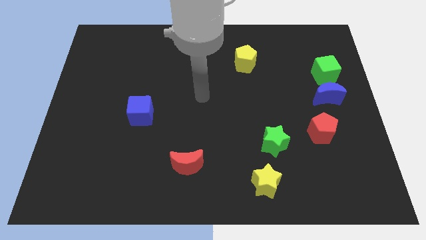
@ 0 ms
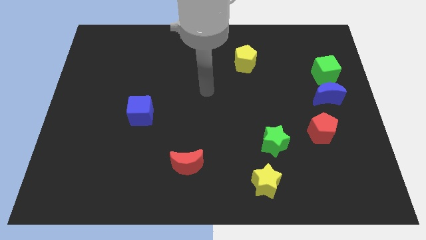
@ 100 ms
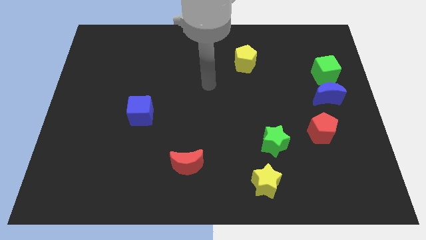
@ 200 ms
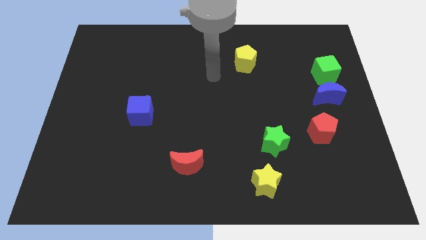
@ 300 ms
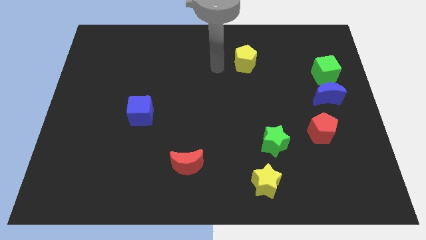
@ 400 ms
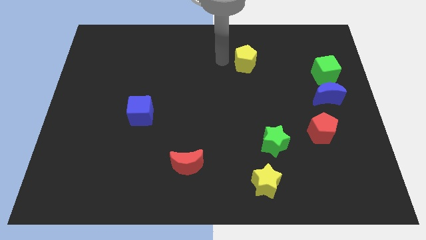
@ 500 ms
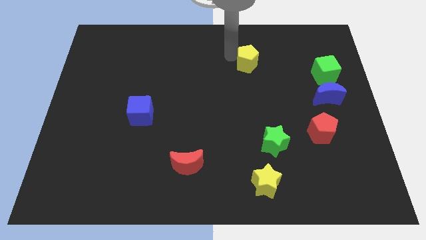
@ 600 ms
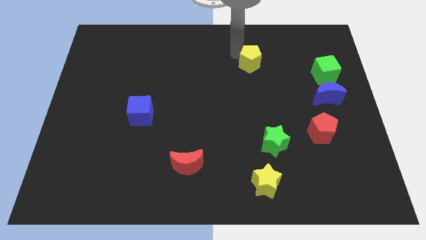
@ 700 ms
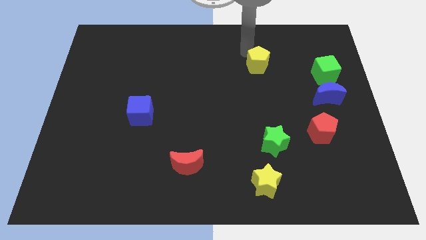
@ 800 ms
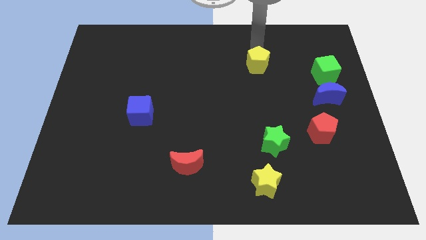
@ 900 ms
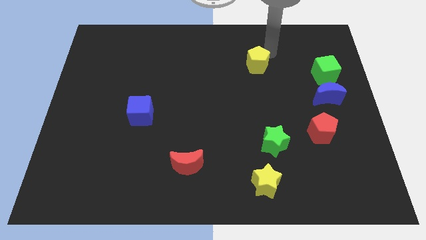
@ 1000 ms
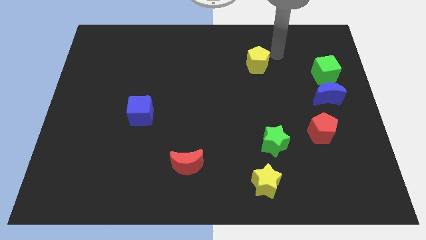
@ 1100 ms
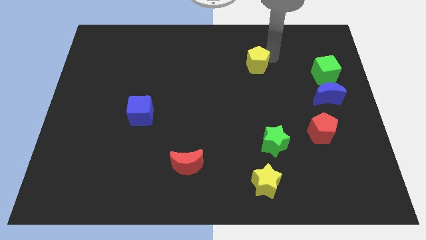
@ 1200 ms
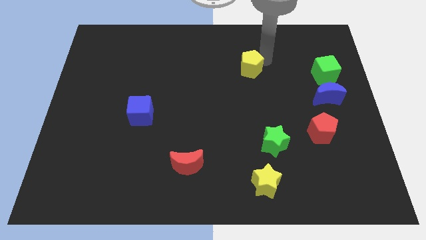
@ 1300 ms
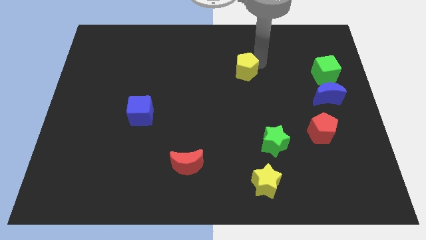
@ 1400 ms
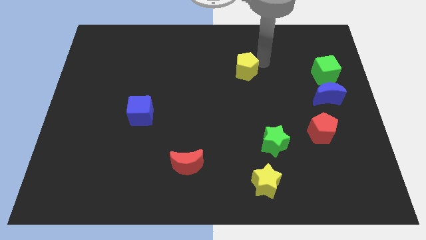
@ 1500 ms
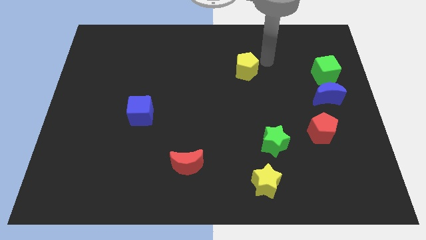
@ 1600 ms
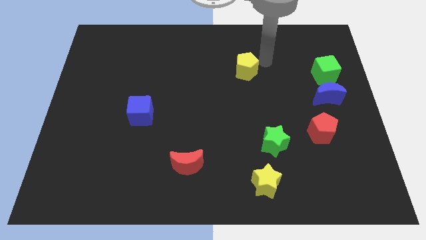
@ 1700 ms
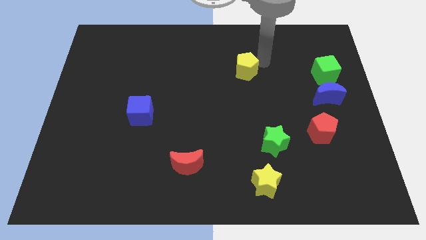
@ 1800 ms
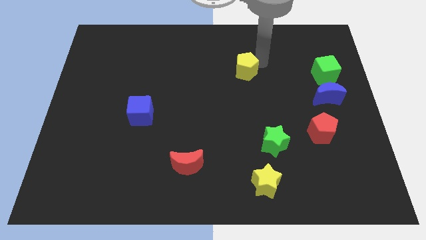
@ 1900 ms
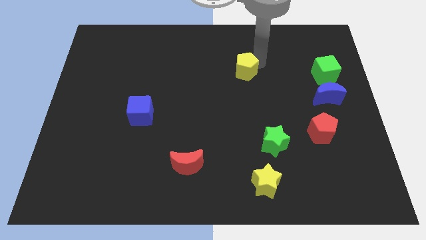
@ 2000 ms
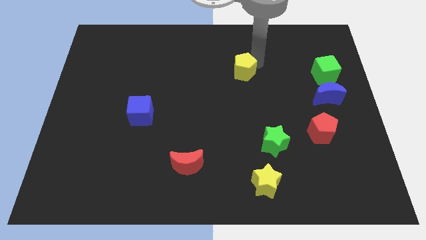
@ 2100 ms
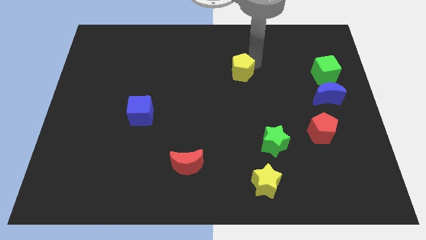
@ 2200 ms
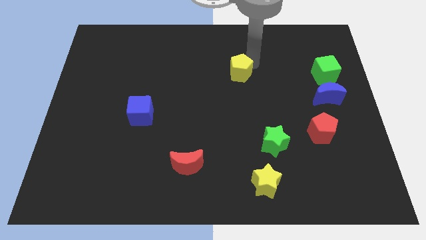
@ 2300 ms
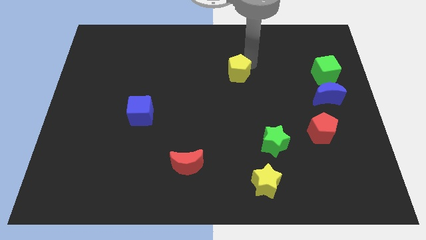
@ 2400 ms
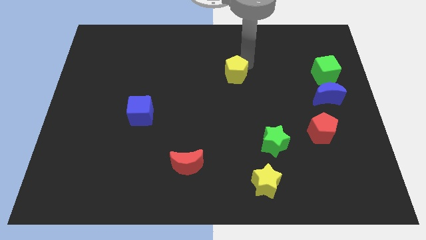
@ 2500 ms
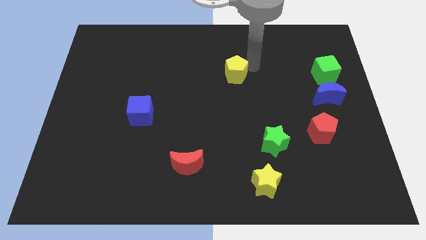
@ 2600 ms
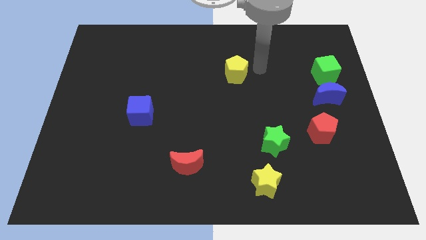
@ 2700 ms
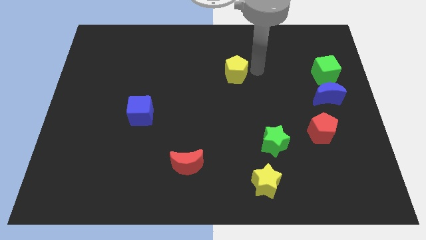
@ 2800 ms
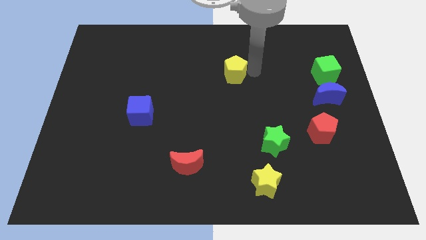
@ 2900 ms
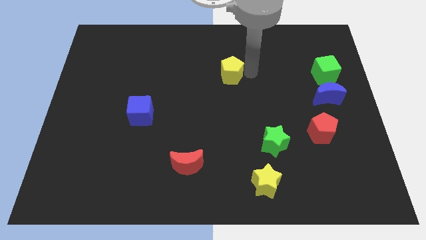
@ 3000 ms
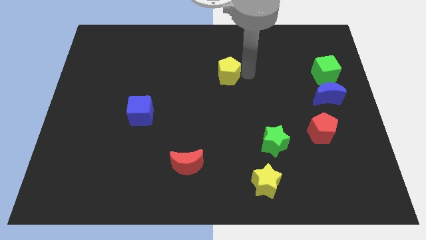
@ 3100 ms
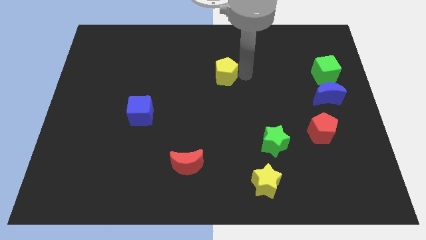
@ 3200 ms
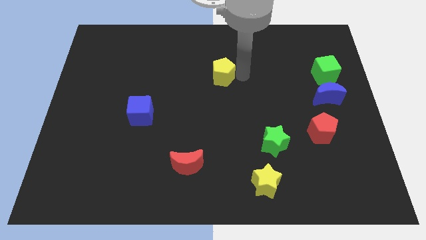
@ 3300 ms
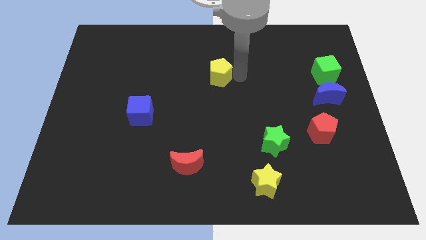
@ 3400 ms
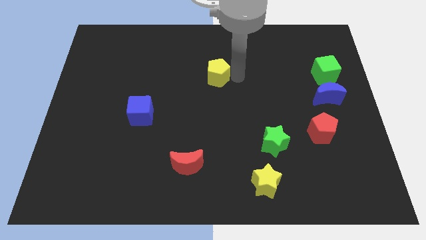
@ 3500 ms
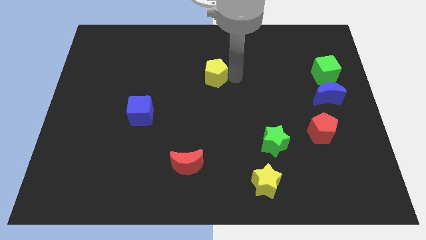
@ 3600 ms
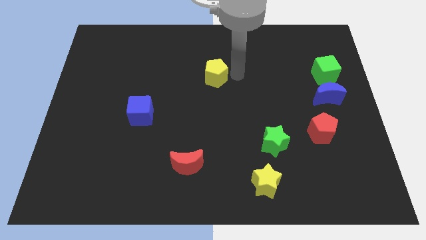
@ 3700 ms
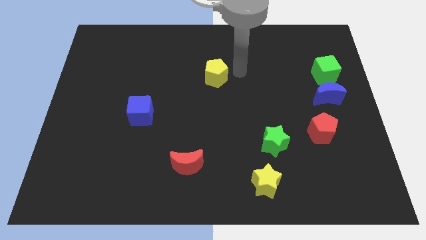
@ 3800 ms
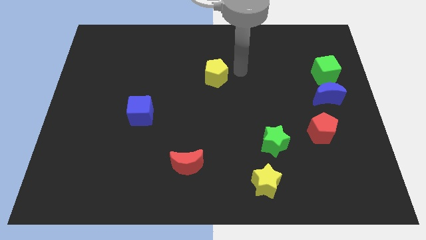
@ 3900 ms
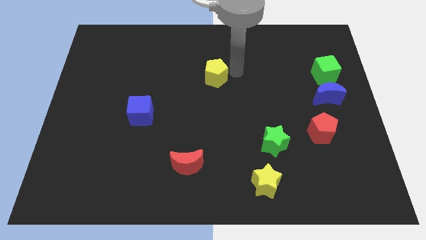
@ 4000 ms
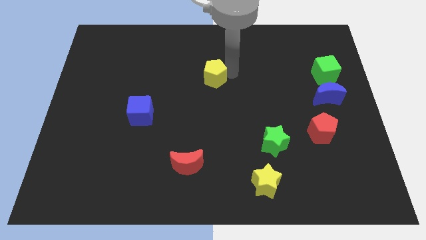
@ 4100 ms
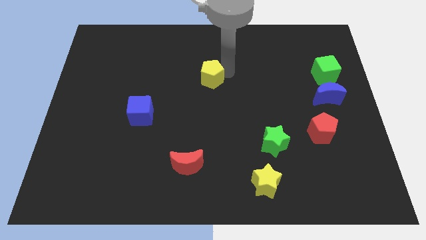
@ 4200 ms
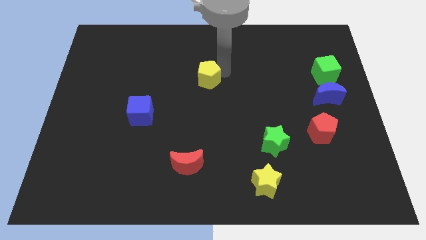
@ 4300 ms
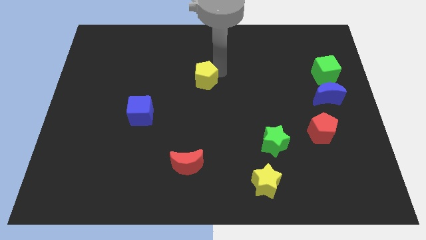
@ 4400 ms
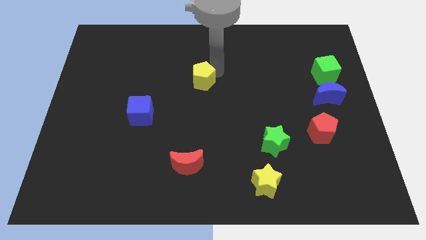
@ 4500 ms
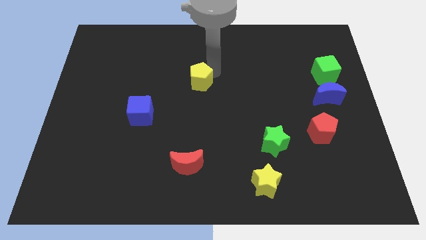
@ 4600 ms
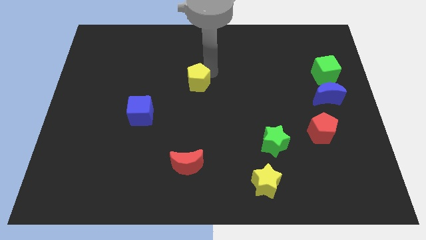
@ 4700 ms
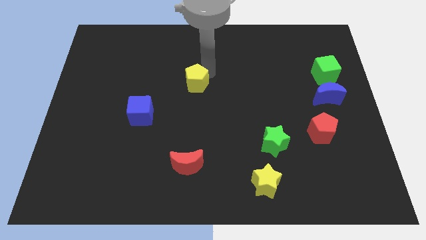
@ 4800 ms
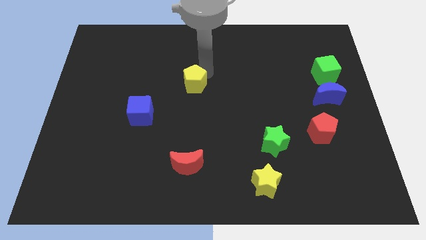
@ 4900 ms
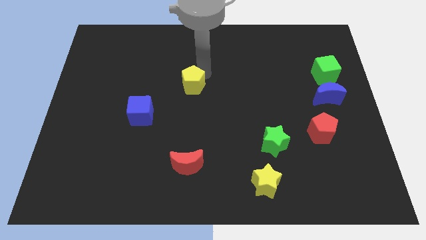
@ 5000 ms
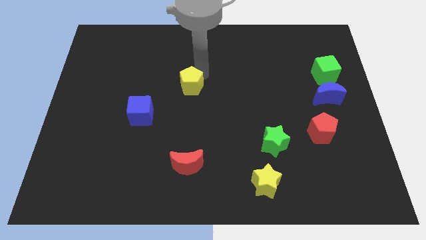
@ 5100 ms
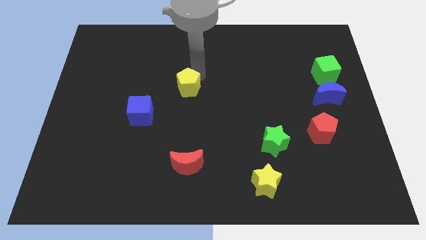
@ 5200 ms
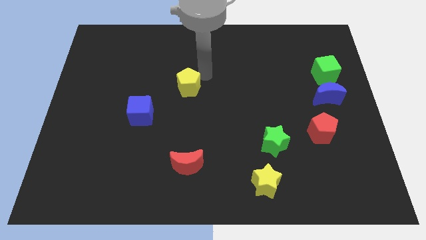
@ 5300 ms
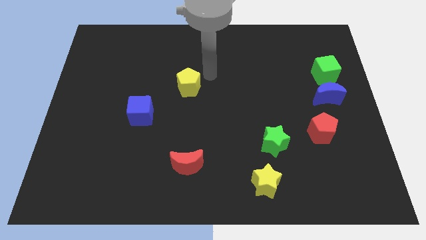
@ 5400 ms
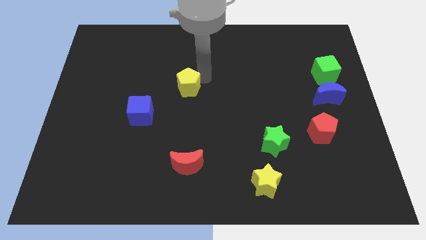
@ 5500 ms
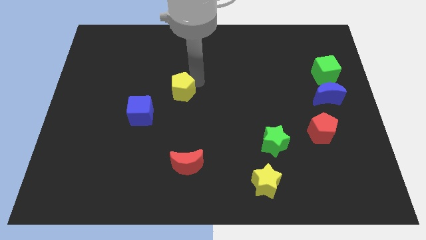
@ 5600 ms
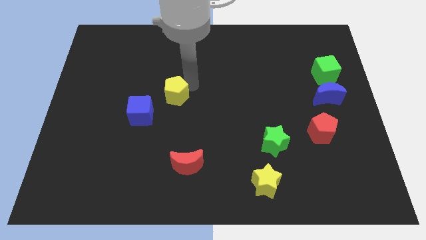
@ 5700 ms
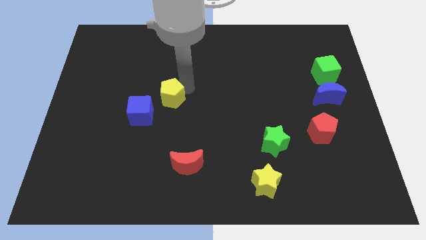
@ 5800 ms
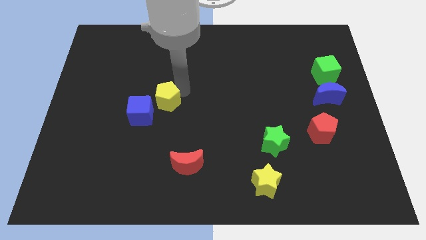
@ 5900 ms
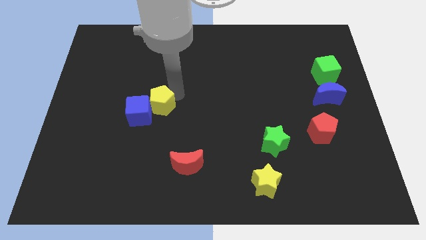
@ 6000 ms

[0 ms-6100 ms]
slide the yellow pentagon close to the blue cube

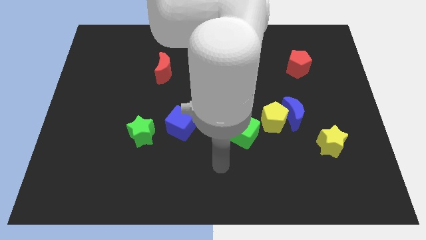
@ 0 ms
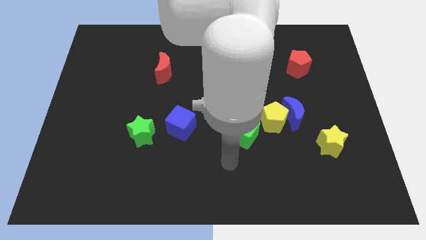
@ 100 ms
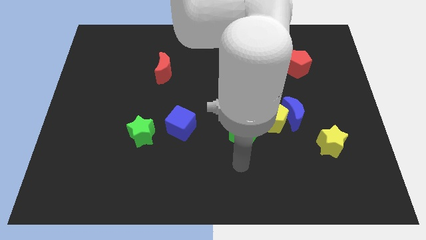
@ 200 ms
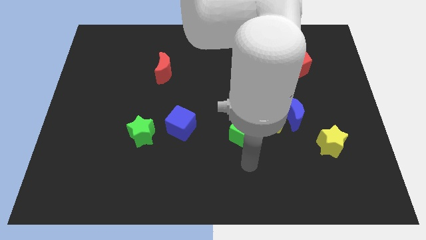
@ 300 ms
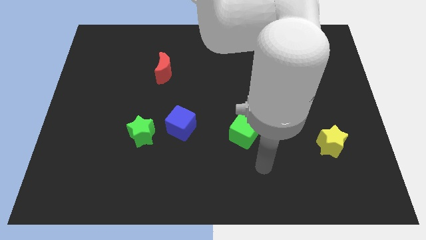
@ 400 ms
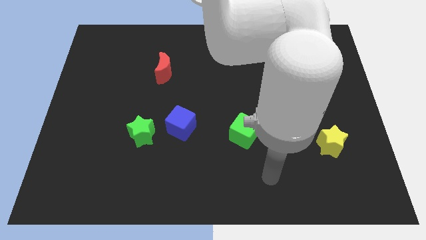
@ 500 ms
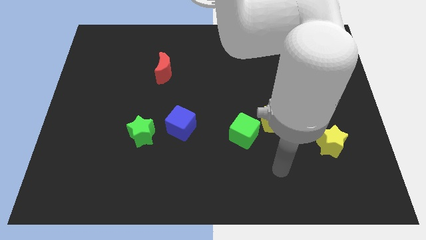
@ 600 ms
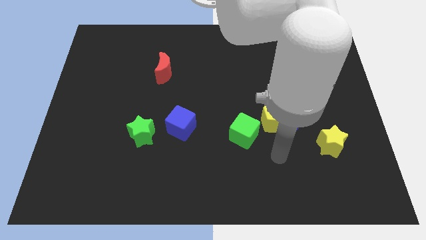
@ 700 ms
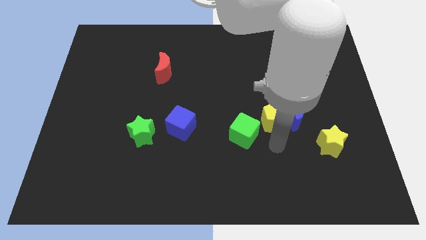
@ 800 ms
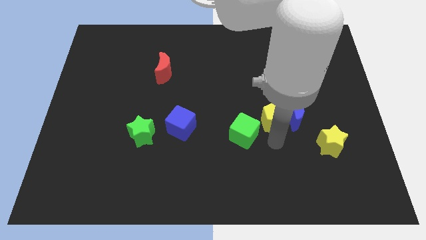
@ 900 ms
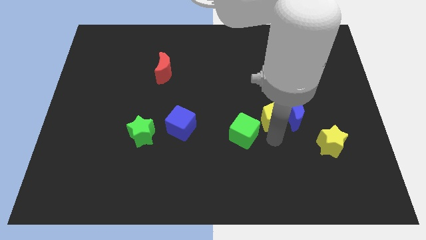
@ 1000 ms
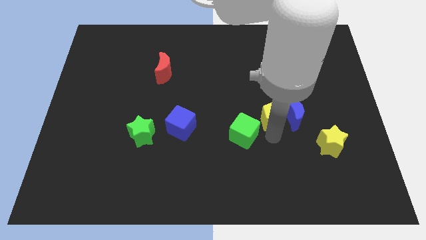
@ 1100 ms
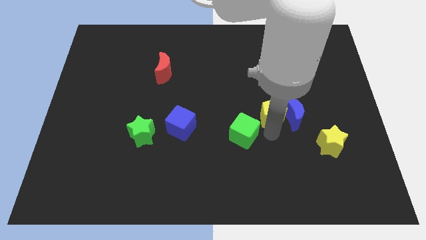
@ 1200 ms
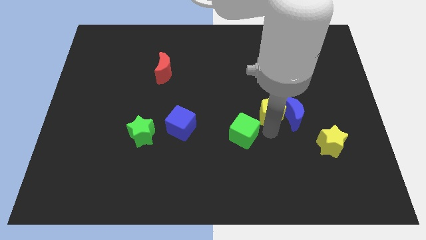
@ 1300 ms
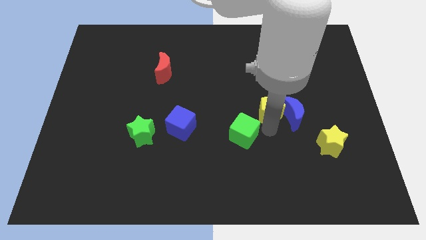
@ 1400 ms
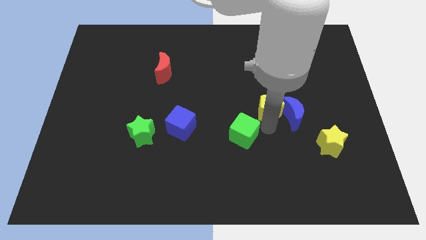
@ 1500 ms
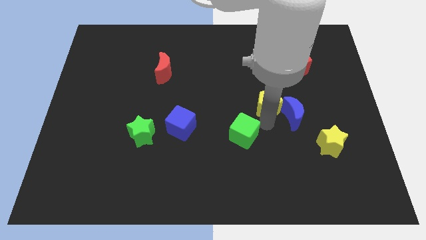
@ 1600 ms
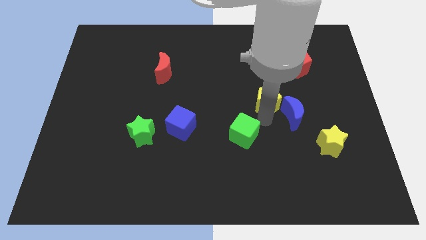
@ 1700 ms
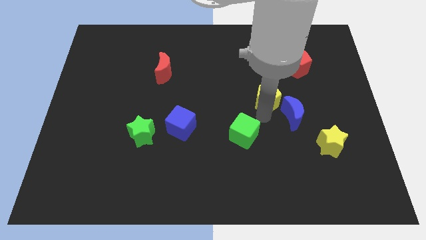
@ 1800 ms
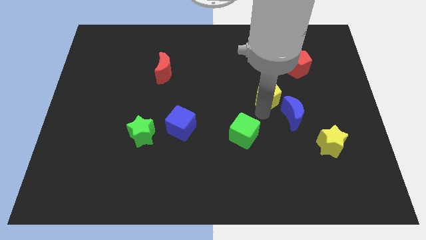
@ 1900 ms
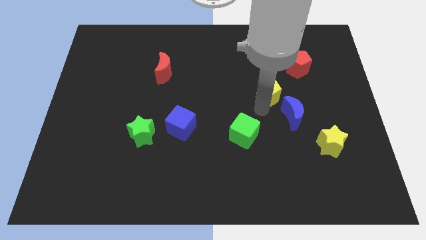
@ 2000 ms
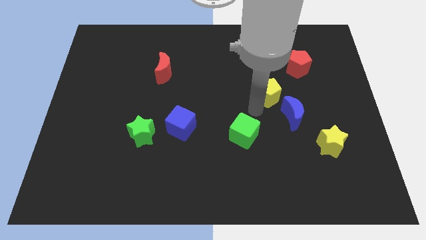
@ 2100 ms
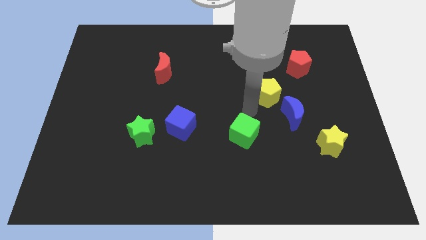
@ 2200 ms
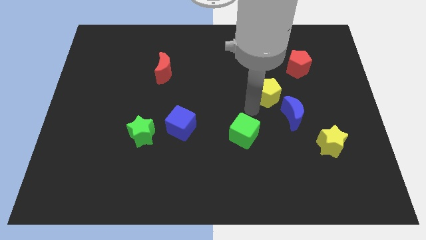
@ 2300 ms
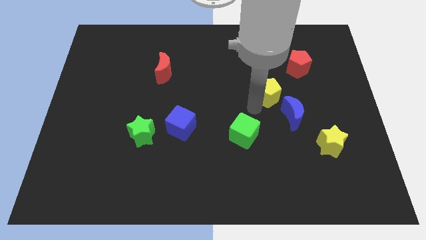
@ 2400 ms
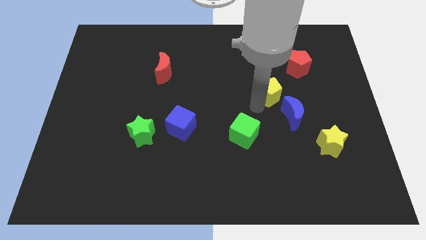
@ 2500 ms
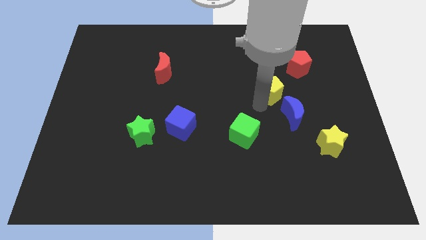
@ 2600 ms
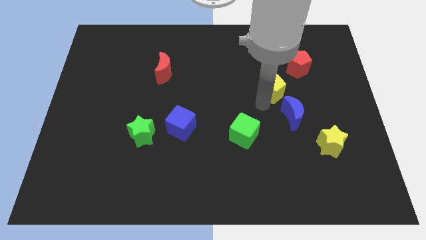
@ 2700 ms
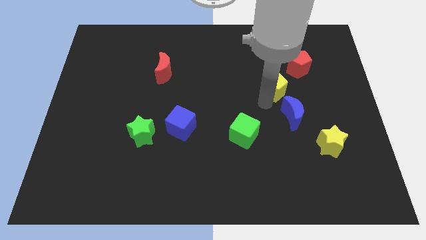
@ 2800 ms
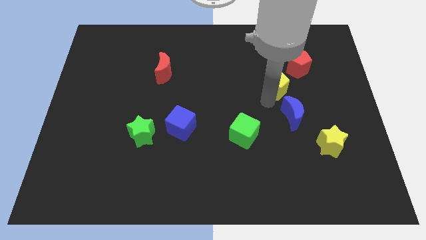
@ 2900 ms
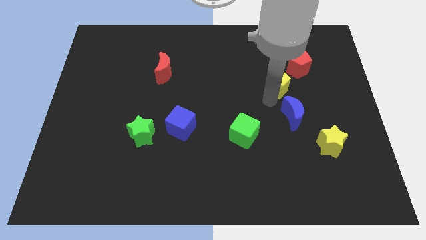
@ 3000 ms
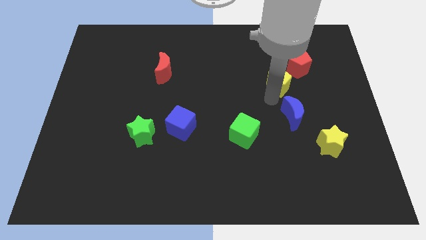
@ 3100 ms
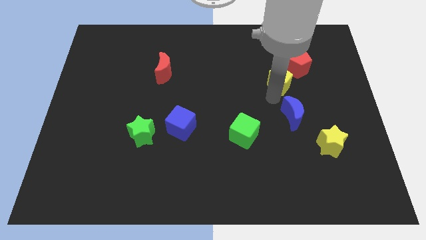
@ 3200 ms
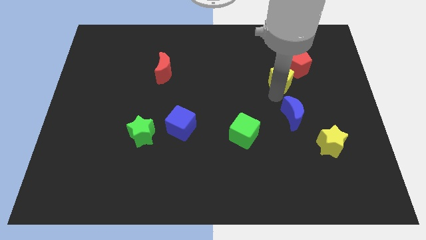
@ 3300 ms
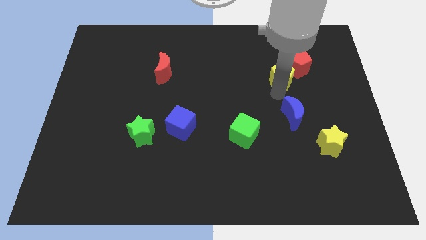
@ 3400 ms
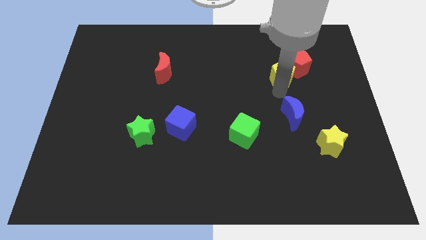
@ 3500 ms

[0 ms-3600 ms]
put the yellow pentagon next to the red pentagon
